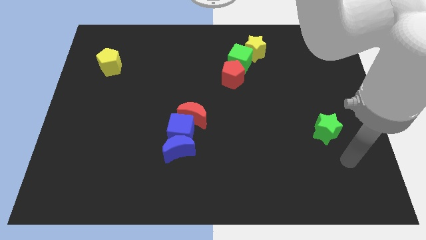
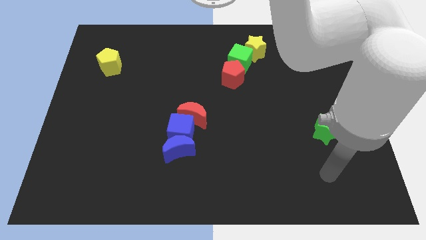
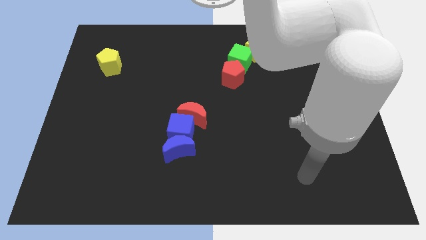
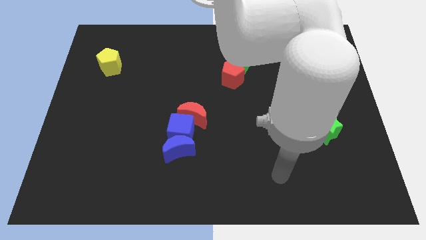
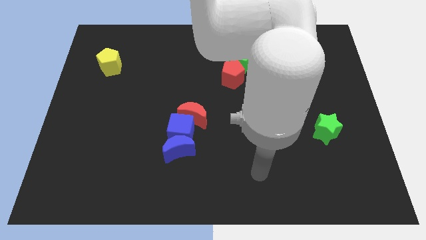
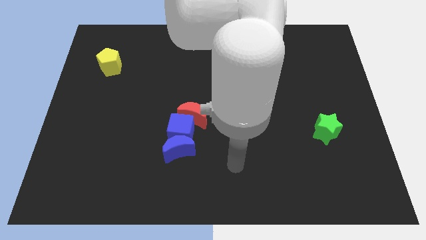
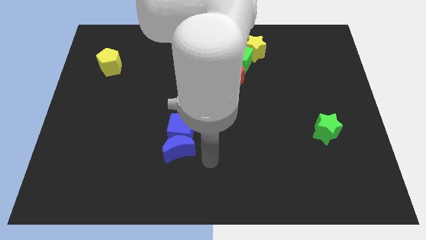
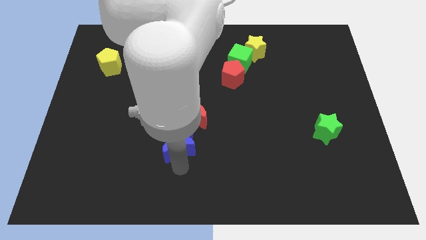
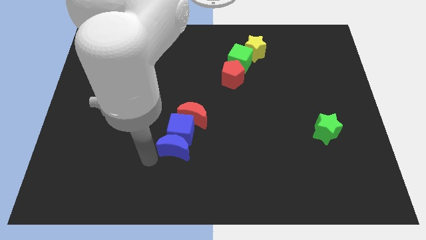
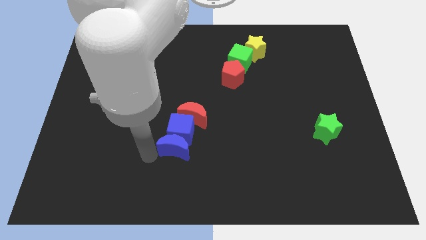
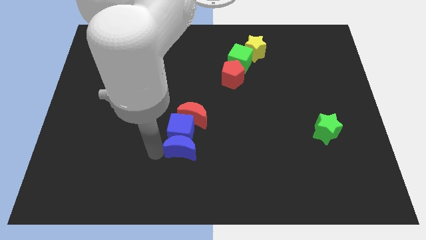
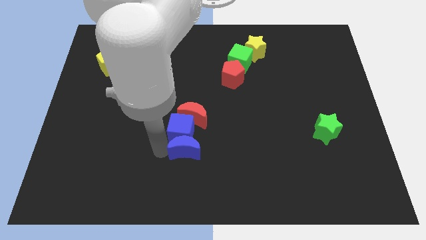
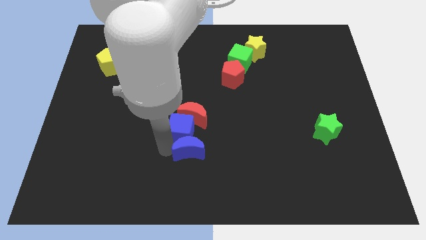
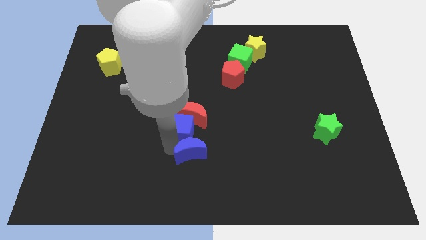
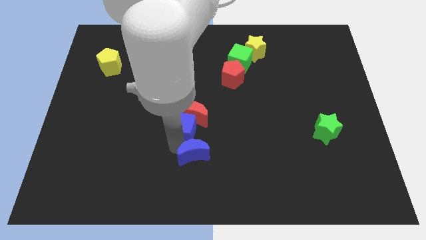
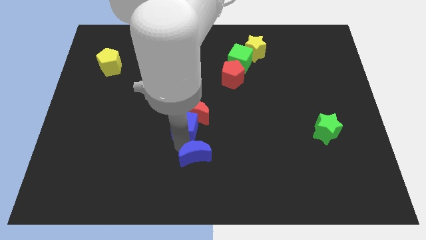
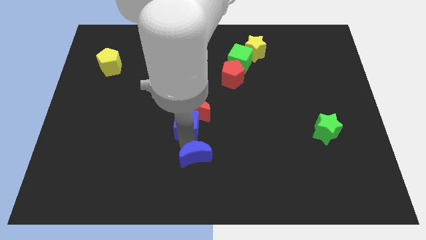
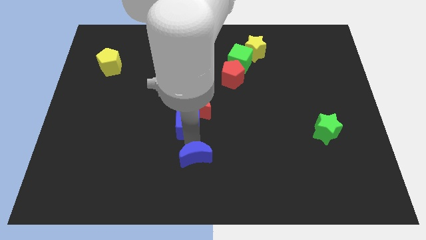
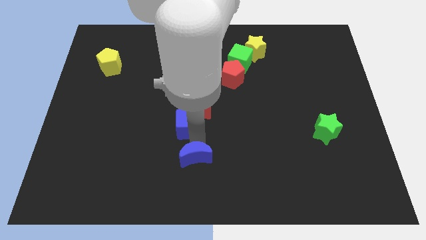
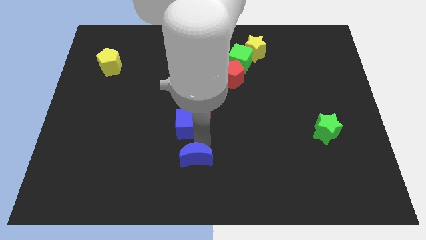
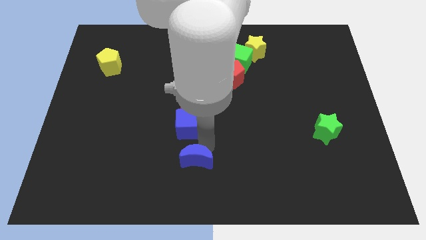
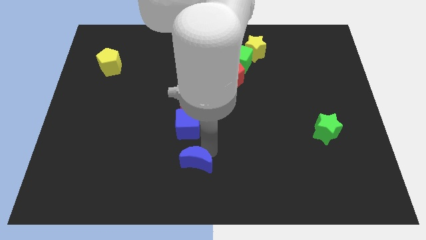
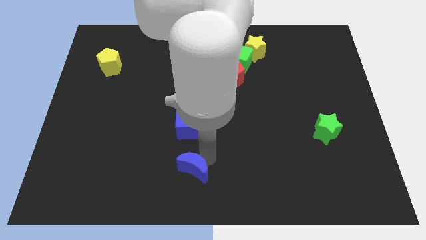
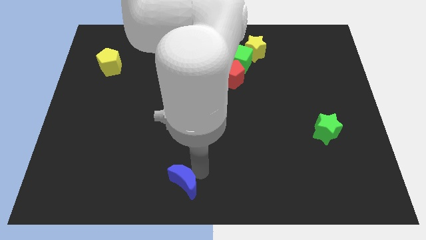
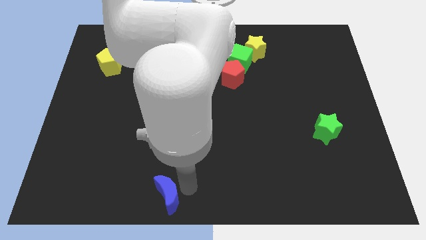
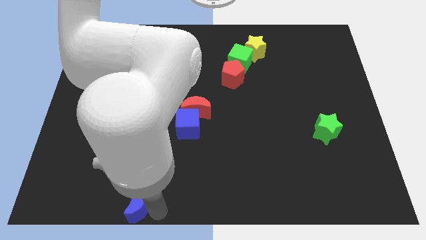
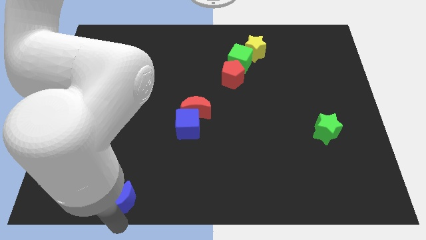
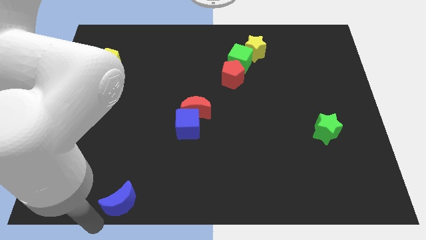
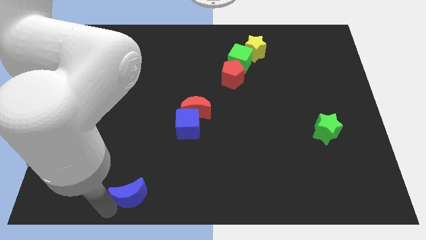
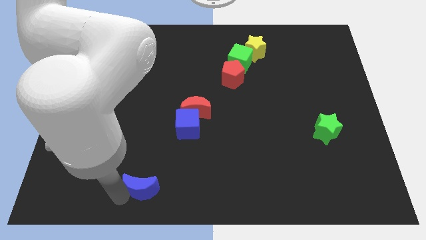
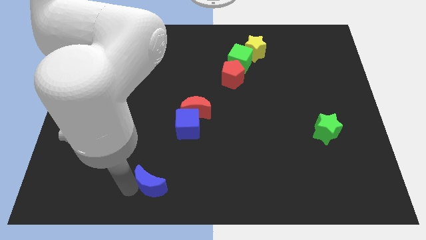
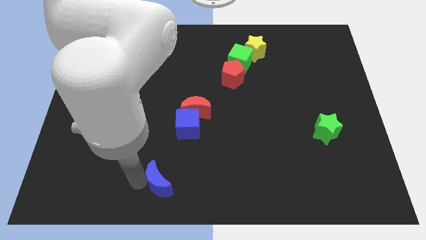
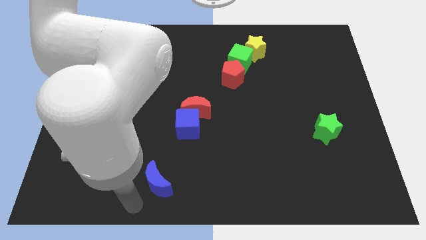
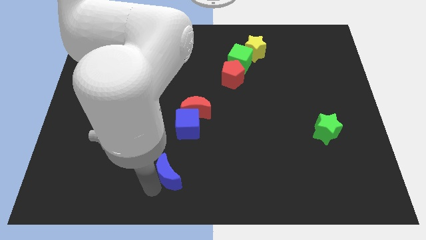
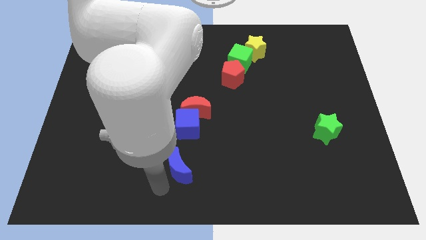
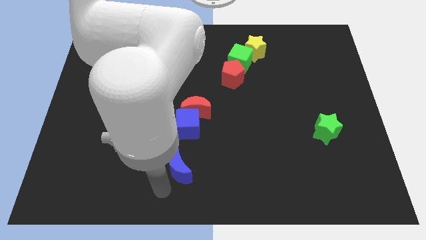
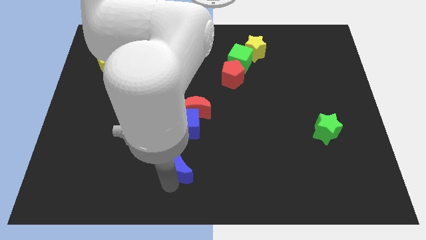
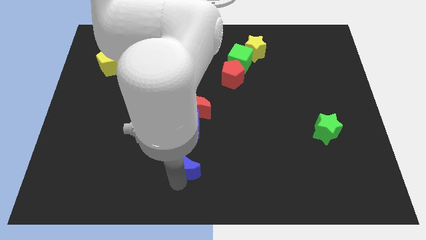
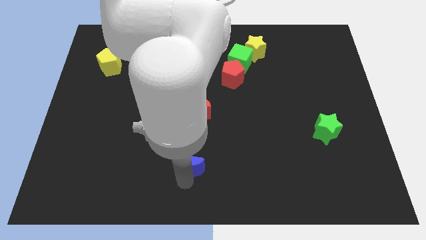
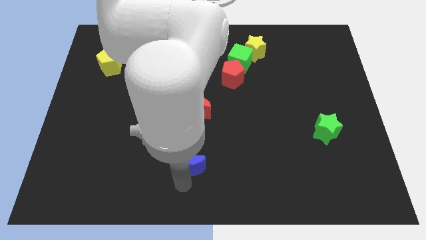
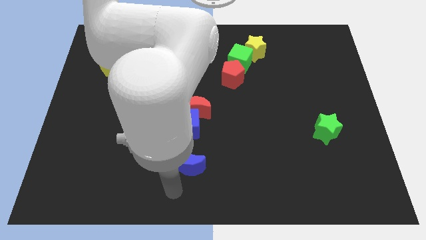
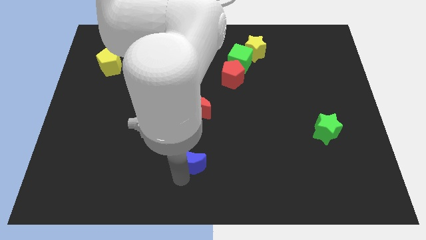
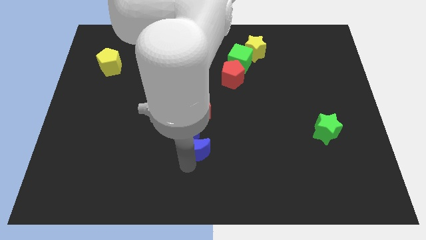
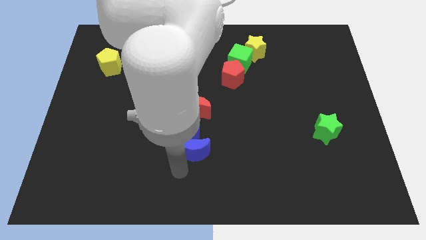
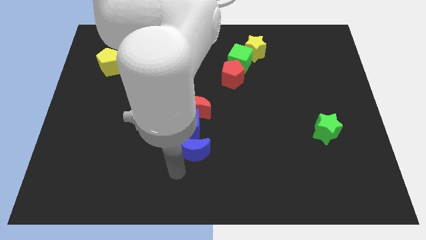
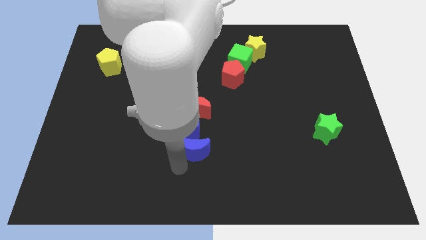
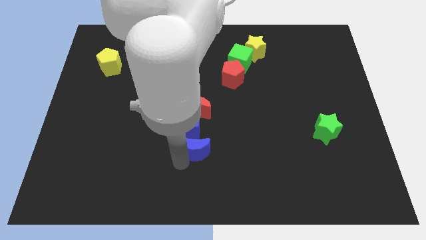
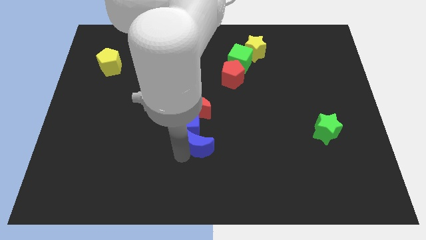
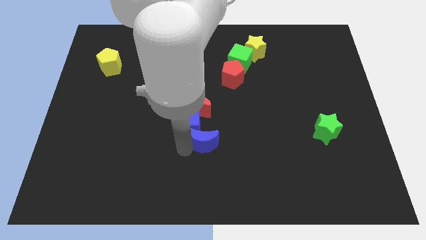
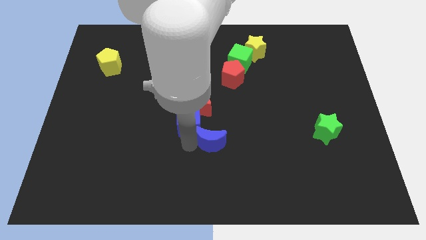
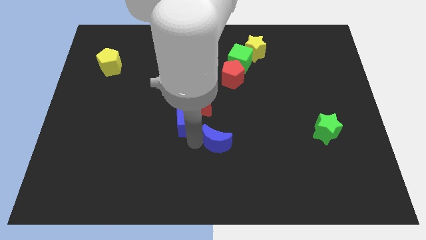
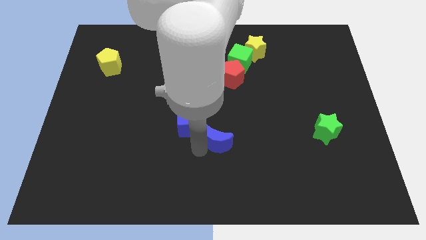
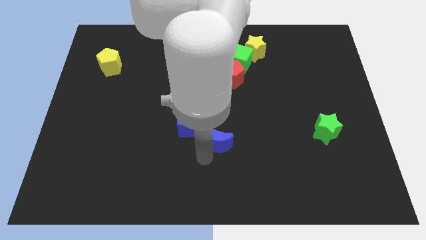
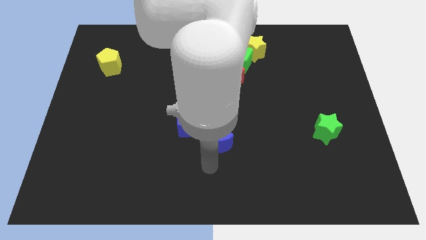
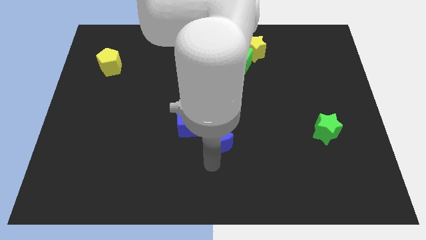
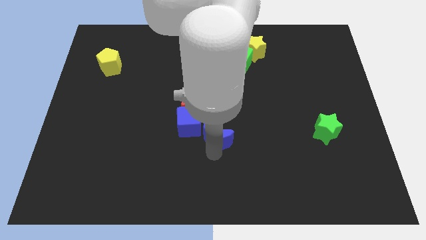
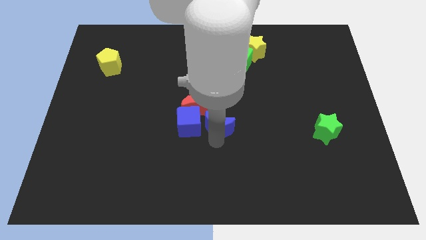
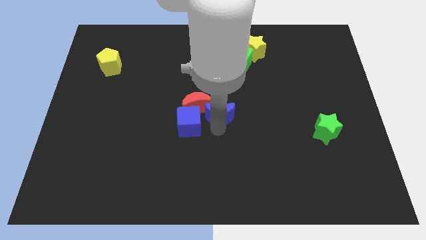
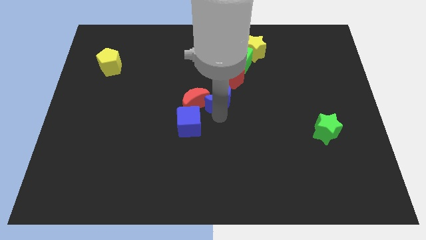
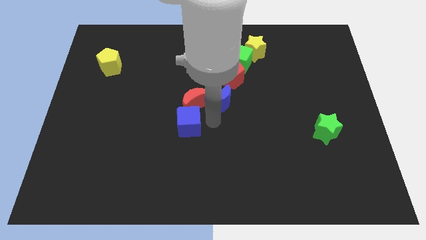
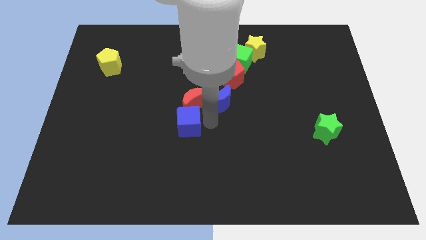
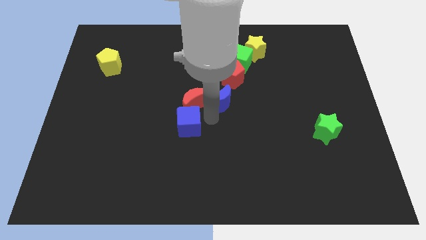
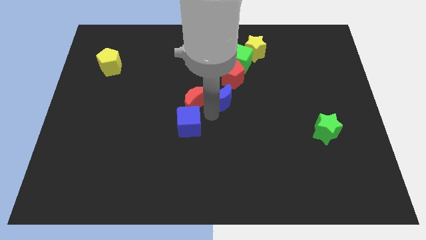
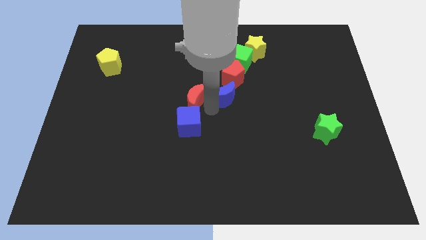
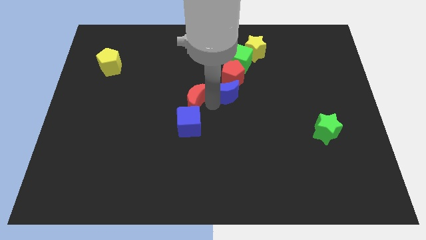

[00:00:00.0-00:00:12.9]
push the blue moon next to the red pentagon

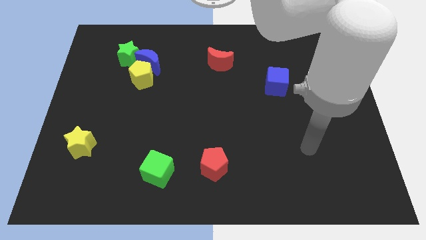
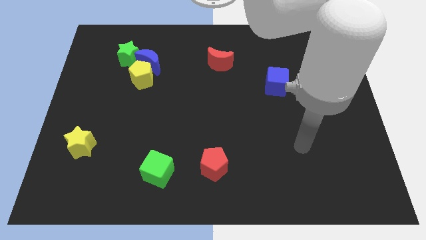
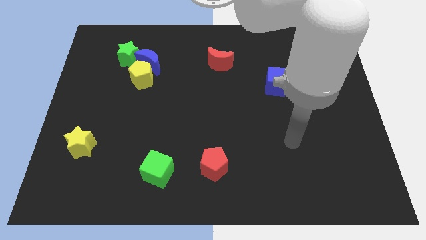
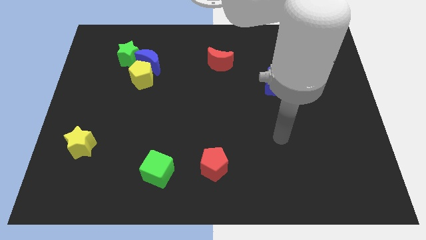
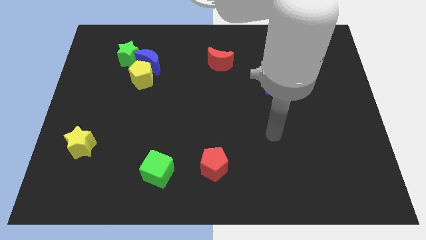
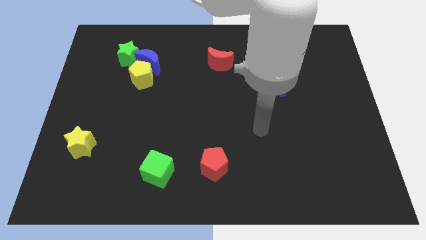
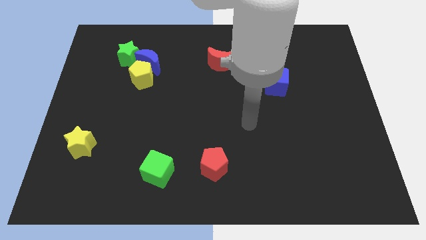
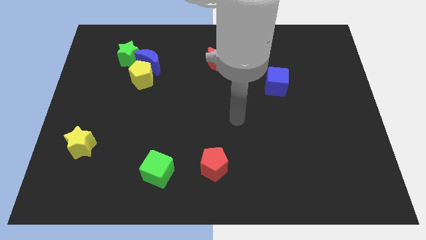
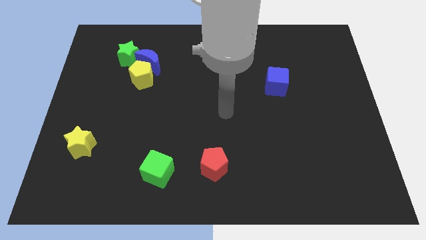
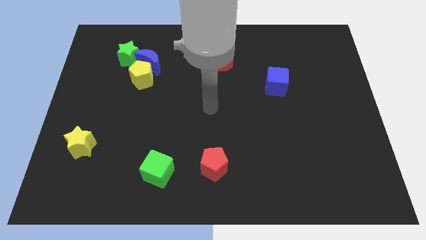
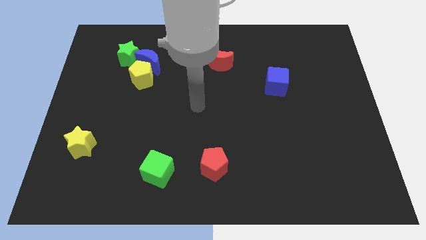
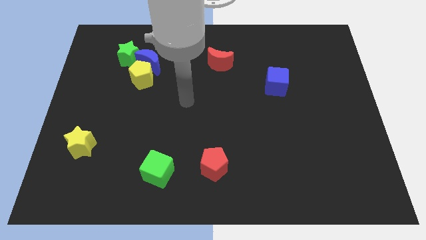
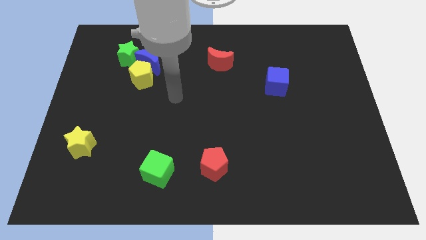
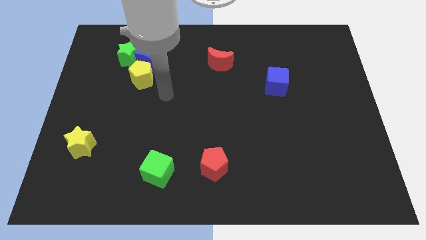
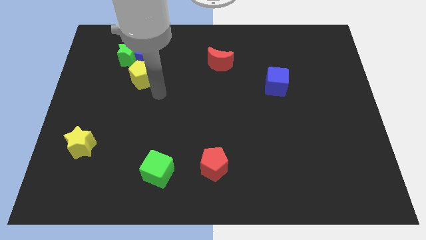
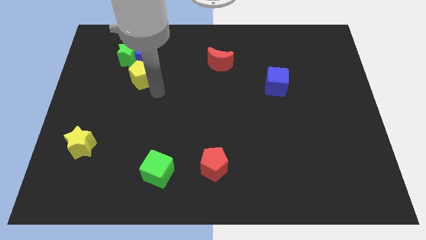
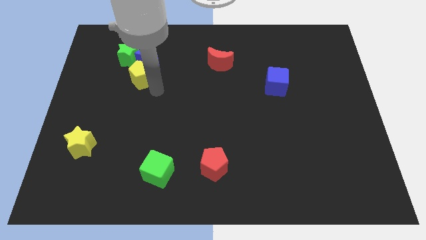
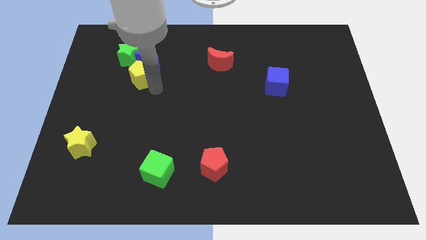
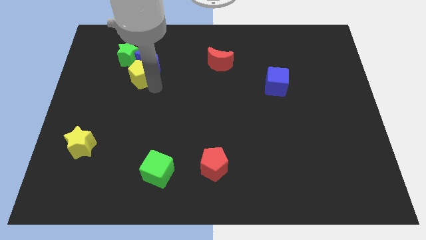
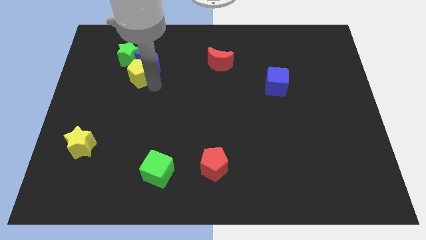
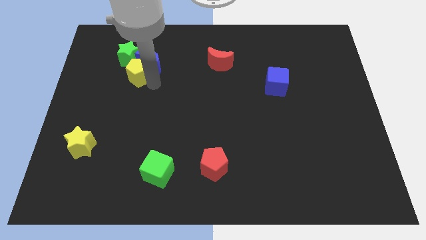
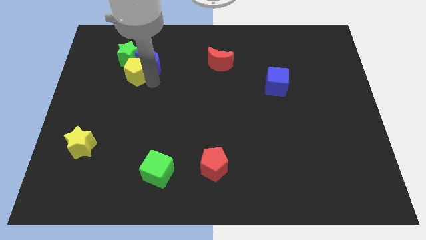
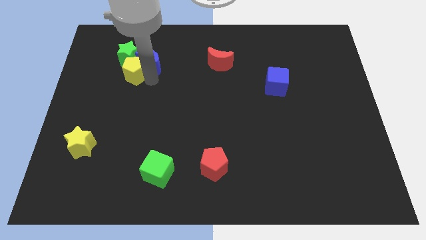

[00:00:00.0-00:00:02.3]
put the yellow pentagon towards the green star
